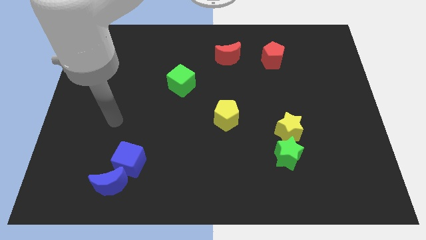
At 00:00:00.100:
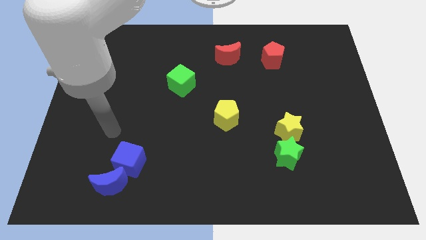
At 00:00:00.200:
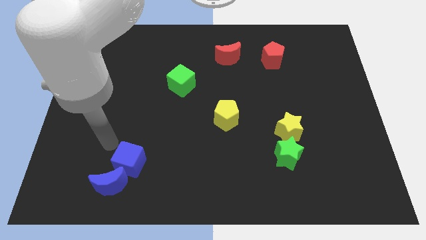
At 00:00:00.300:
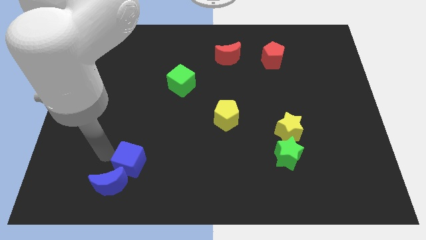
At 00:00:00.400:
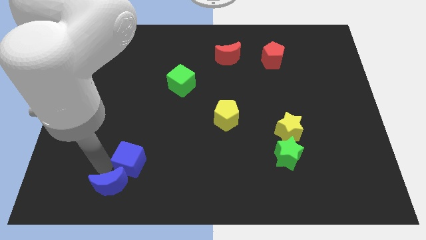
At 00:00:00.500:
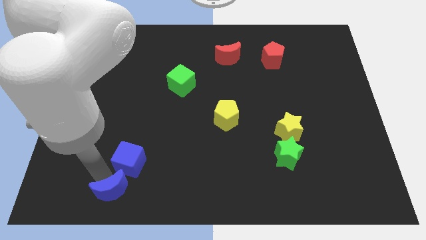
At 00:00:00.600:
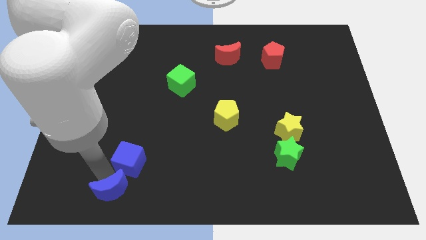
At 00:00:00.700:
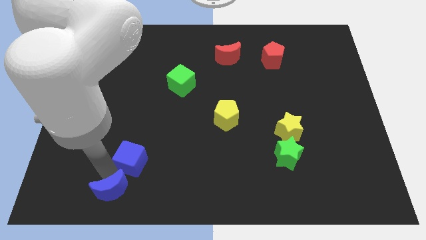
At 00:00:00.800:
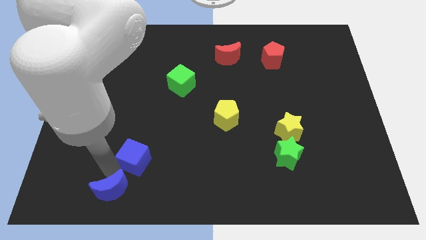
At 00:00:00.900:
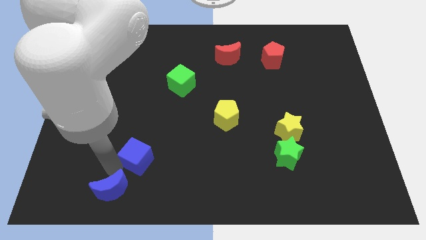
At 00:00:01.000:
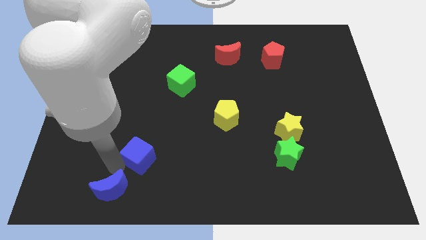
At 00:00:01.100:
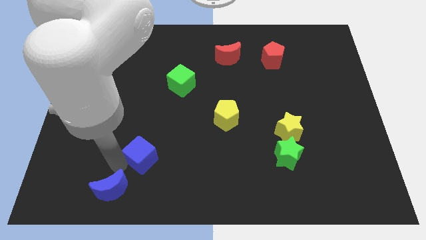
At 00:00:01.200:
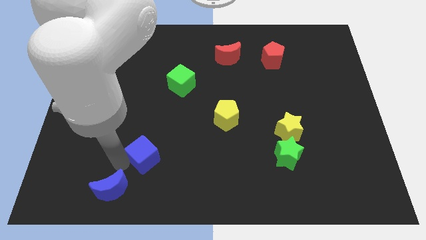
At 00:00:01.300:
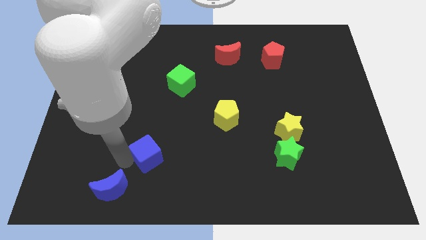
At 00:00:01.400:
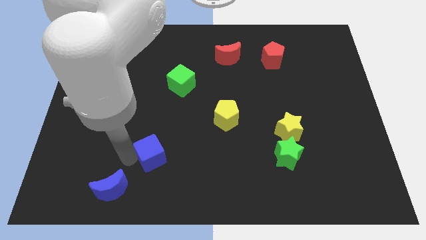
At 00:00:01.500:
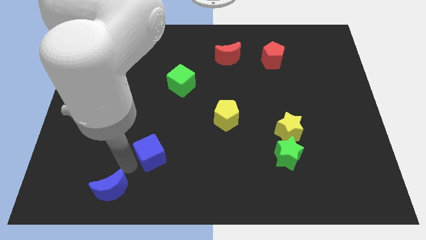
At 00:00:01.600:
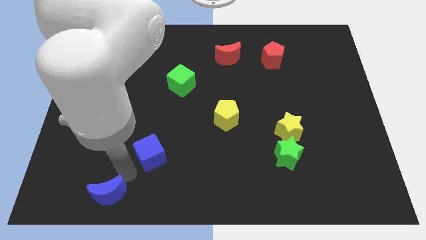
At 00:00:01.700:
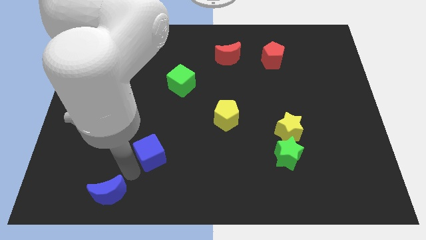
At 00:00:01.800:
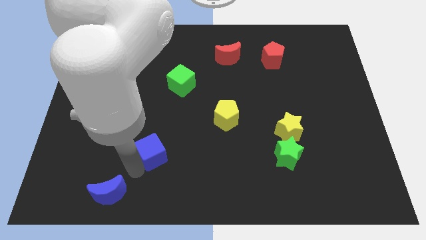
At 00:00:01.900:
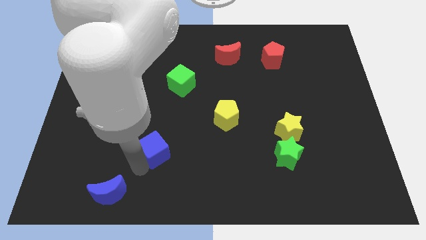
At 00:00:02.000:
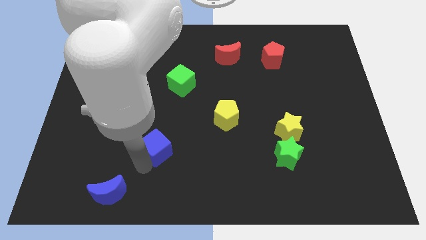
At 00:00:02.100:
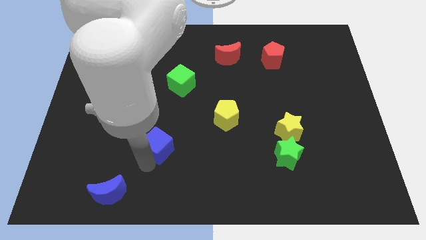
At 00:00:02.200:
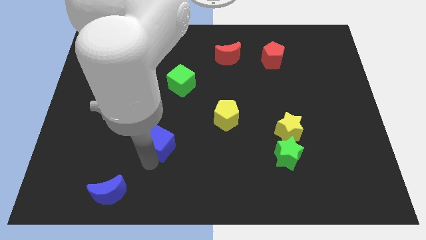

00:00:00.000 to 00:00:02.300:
slide the blue cube diagonally up and to the right a little

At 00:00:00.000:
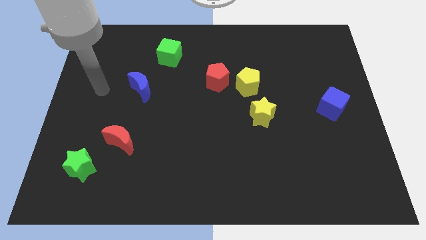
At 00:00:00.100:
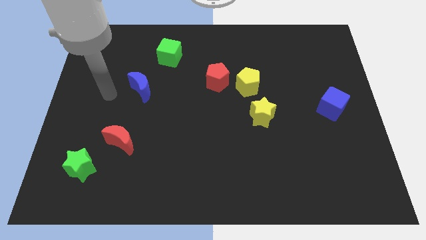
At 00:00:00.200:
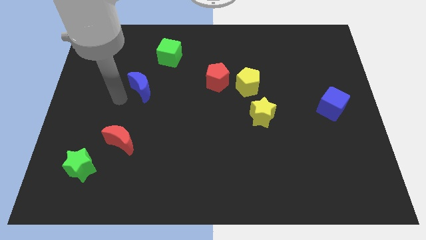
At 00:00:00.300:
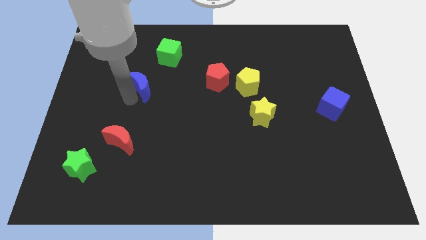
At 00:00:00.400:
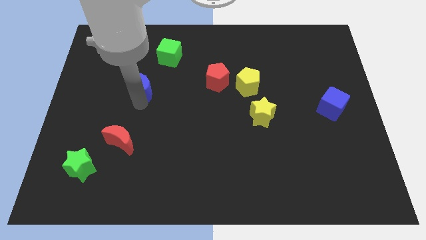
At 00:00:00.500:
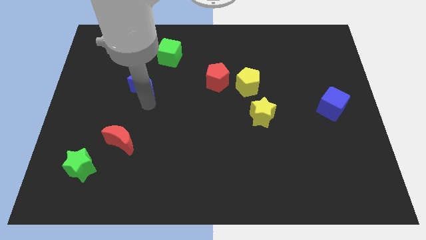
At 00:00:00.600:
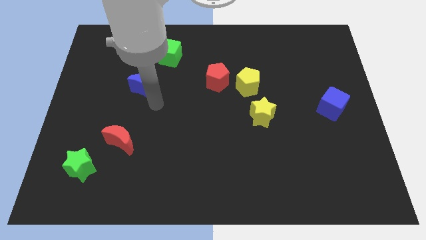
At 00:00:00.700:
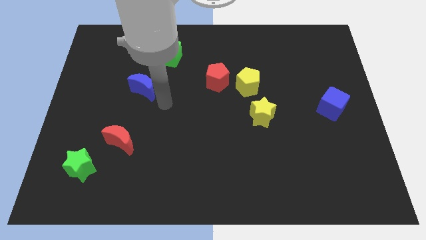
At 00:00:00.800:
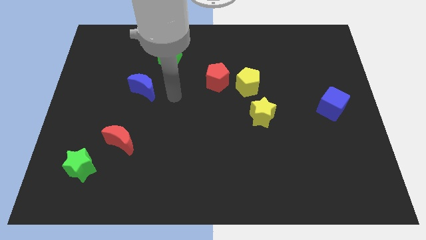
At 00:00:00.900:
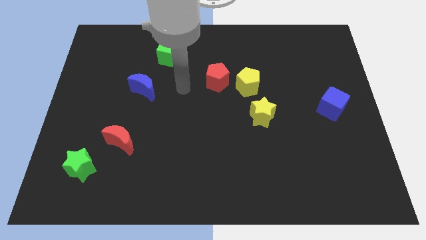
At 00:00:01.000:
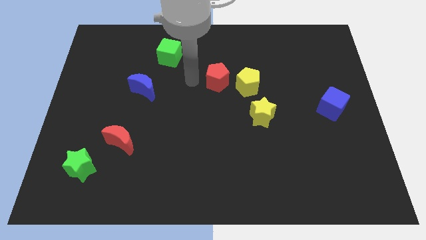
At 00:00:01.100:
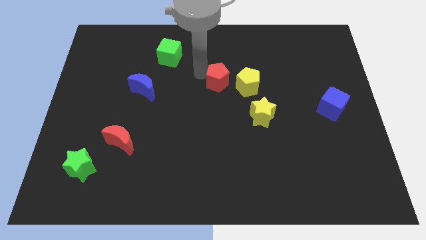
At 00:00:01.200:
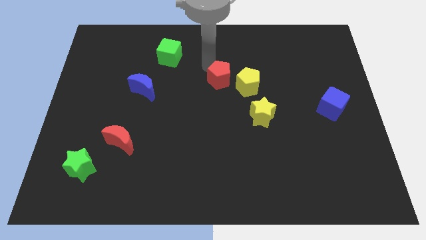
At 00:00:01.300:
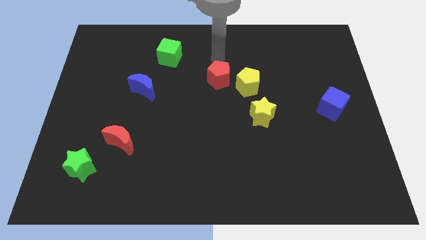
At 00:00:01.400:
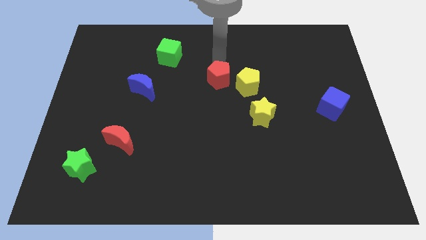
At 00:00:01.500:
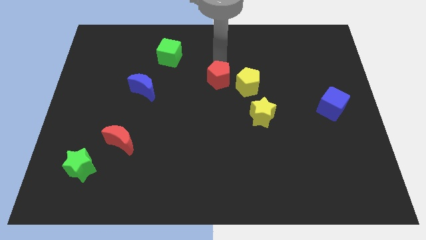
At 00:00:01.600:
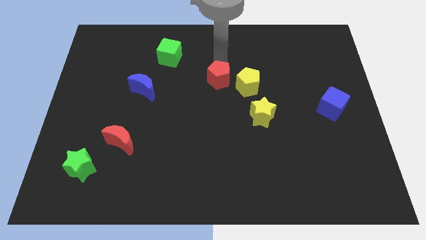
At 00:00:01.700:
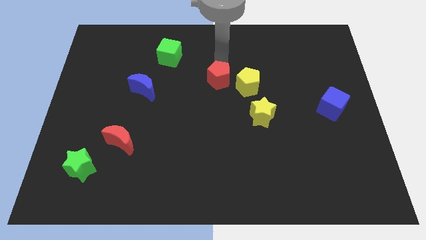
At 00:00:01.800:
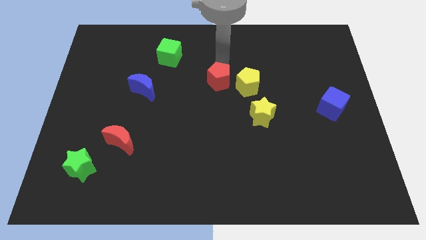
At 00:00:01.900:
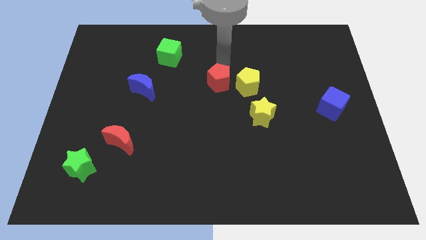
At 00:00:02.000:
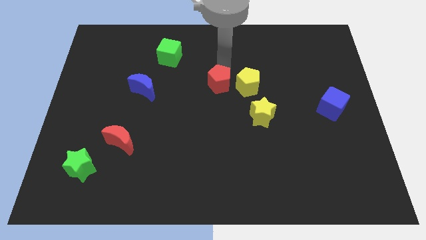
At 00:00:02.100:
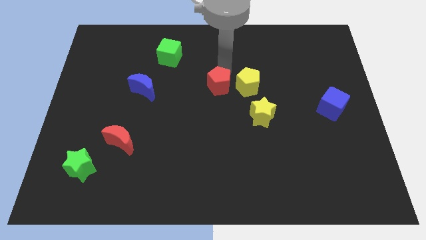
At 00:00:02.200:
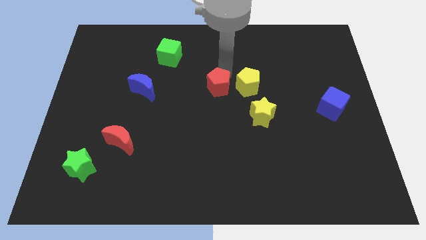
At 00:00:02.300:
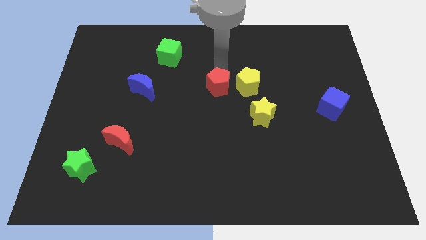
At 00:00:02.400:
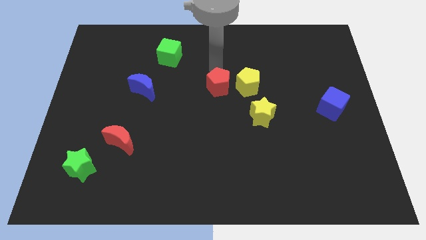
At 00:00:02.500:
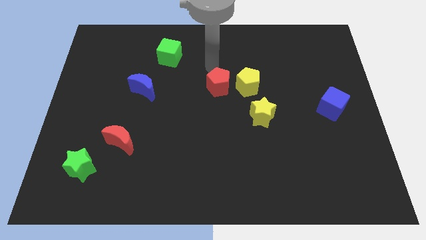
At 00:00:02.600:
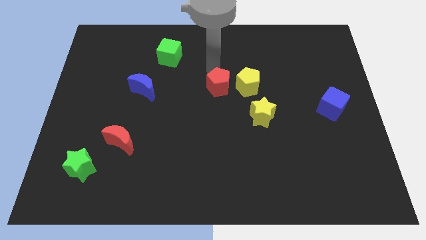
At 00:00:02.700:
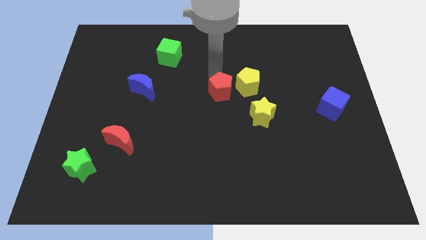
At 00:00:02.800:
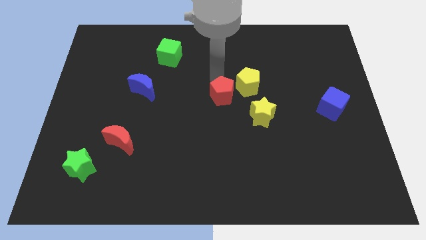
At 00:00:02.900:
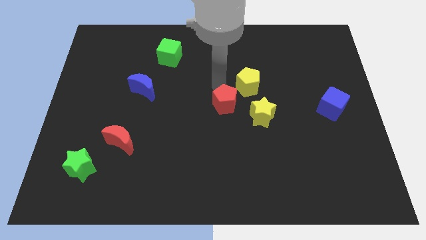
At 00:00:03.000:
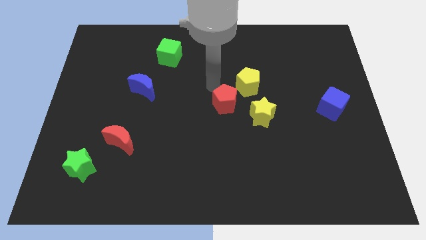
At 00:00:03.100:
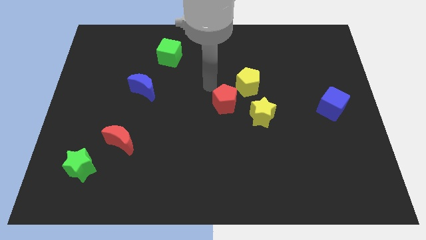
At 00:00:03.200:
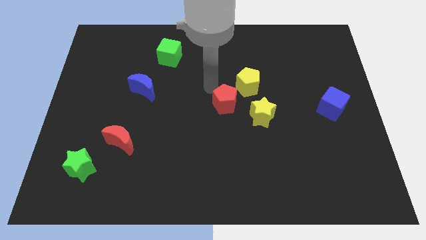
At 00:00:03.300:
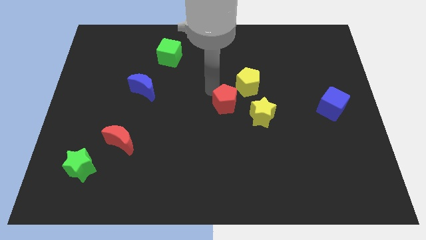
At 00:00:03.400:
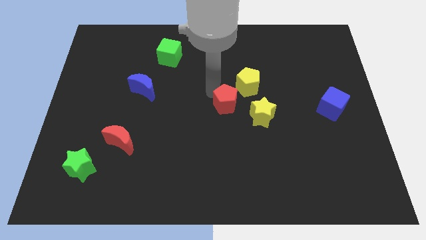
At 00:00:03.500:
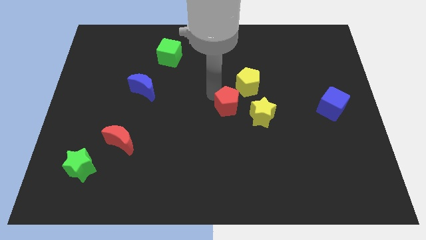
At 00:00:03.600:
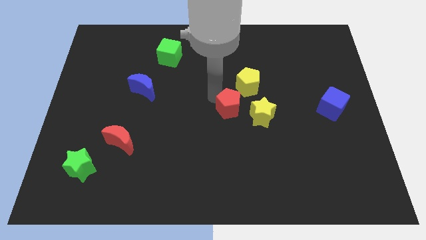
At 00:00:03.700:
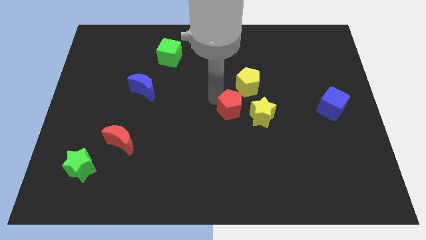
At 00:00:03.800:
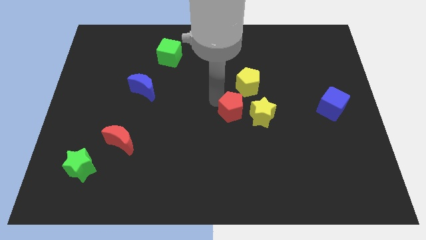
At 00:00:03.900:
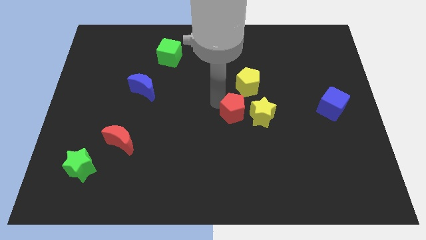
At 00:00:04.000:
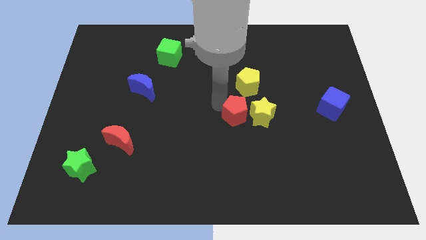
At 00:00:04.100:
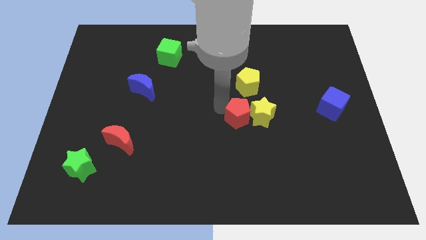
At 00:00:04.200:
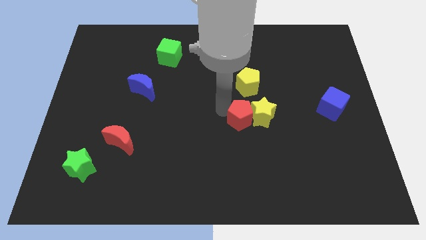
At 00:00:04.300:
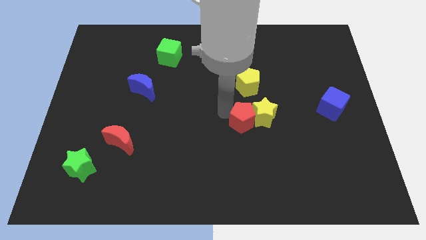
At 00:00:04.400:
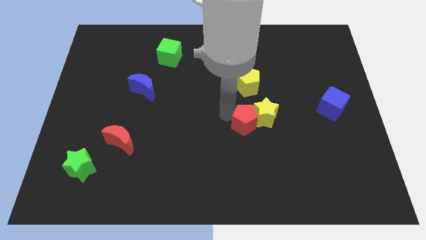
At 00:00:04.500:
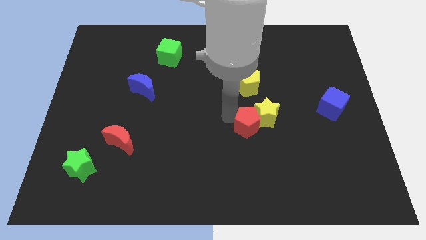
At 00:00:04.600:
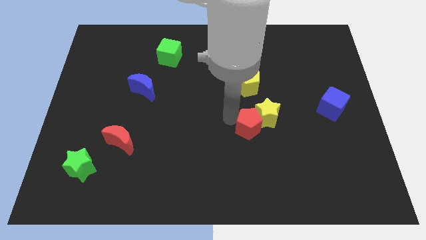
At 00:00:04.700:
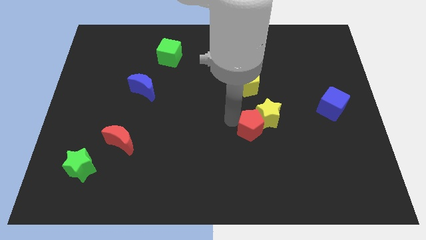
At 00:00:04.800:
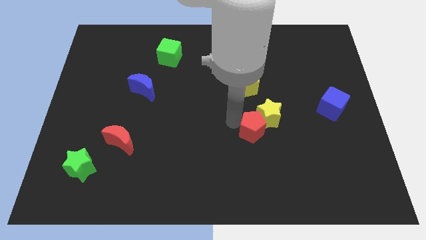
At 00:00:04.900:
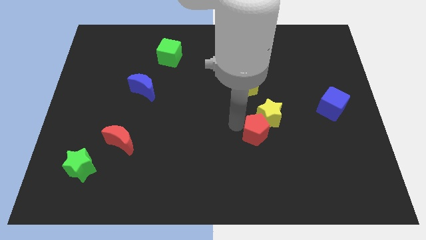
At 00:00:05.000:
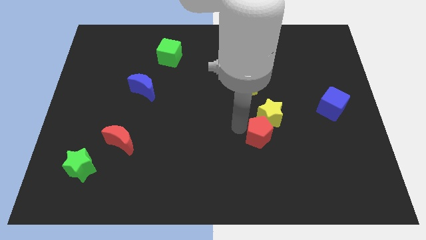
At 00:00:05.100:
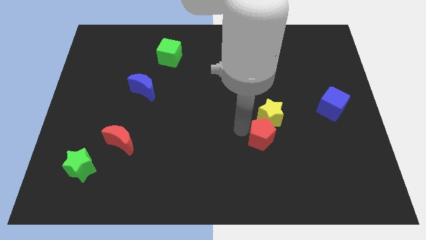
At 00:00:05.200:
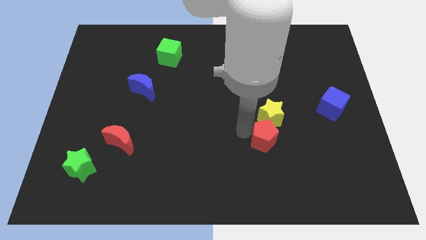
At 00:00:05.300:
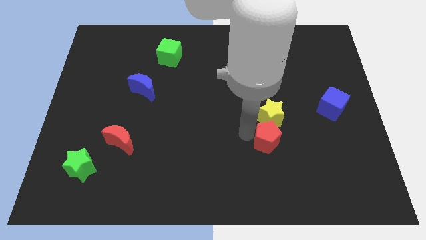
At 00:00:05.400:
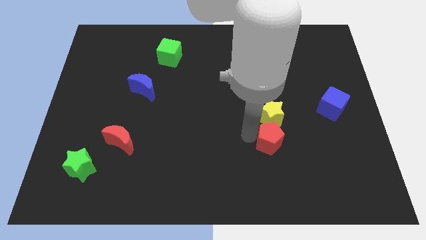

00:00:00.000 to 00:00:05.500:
slide the red pentagon down and right diagonally
